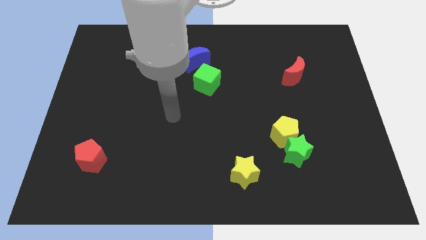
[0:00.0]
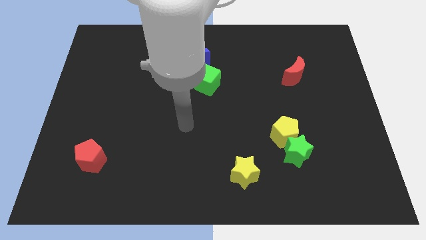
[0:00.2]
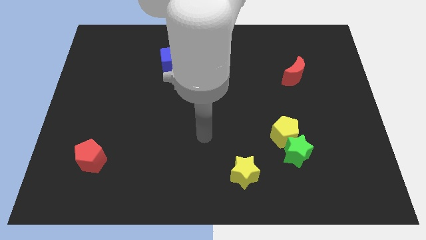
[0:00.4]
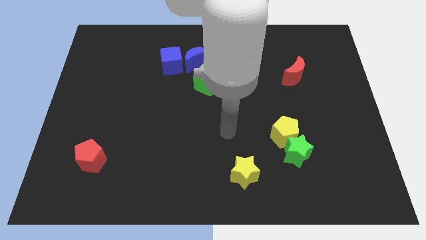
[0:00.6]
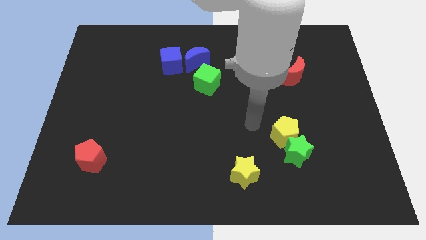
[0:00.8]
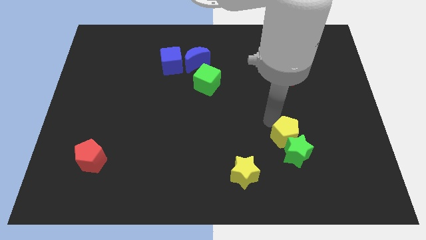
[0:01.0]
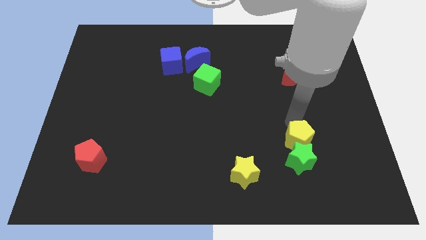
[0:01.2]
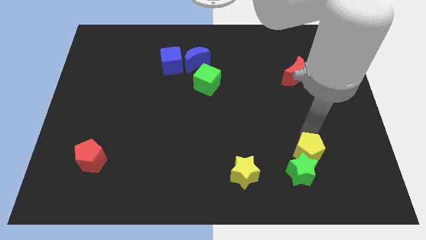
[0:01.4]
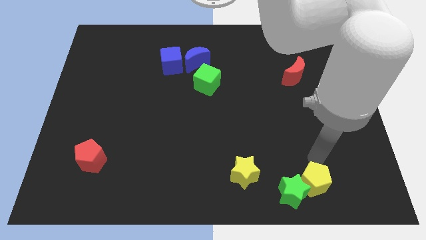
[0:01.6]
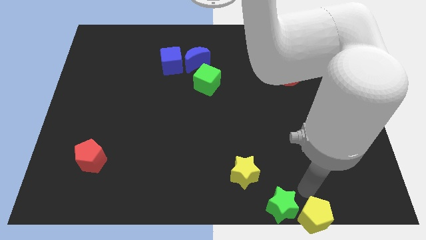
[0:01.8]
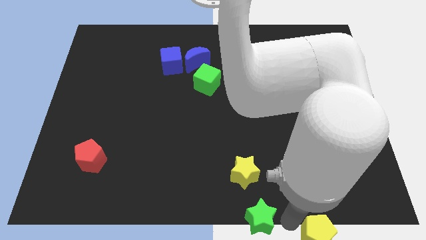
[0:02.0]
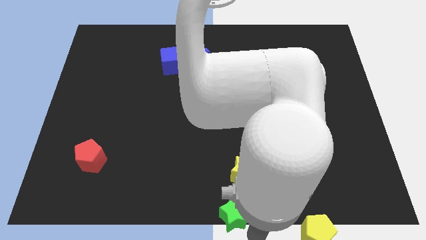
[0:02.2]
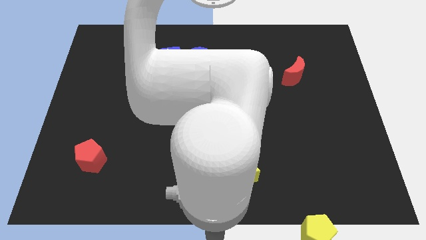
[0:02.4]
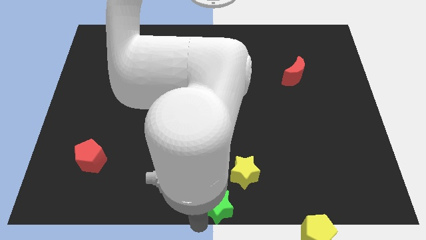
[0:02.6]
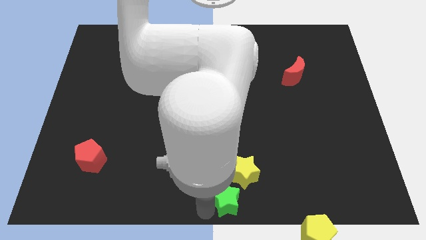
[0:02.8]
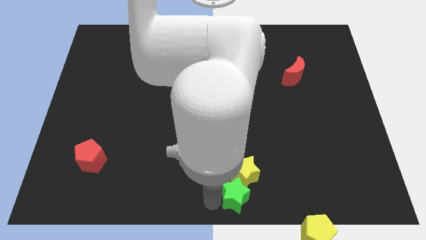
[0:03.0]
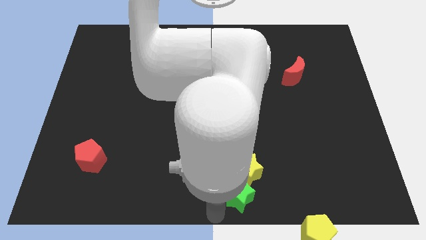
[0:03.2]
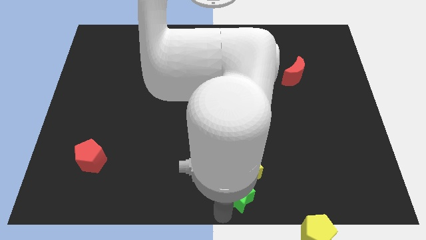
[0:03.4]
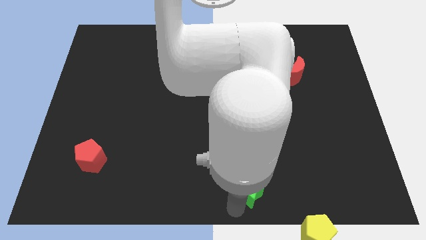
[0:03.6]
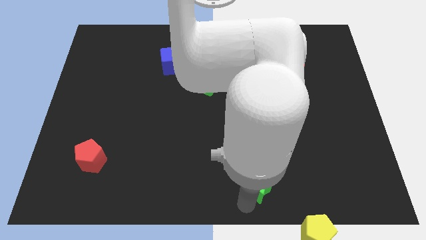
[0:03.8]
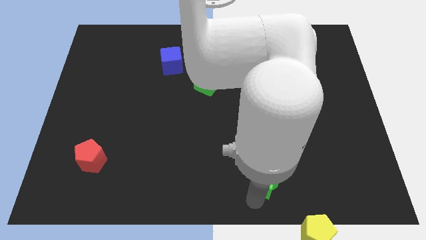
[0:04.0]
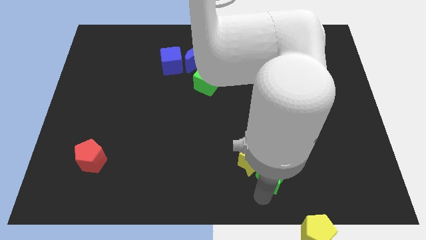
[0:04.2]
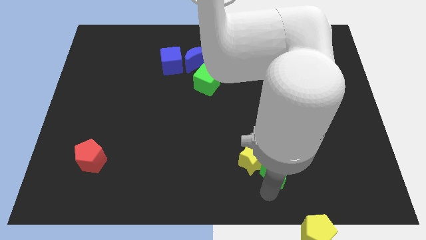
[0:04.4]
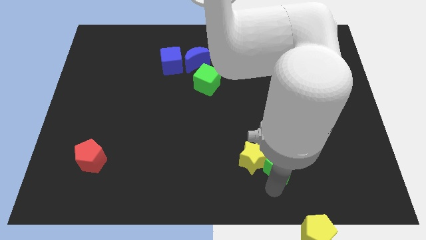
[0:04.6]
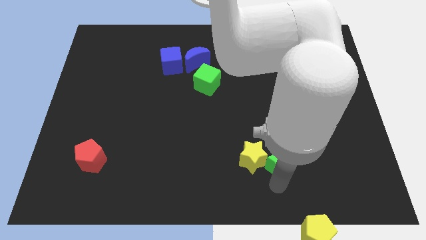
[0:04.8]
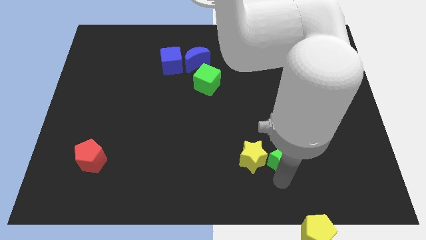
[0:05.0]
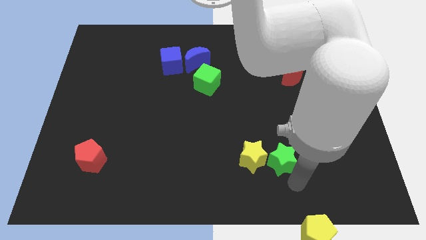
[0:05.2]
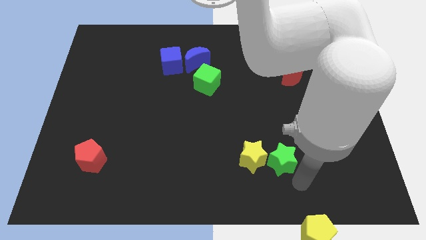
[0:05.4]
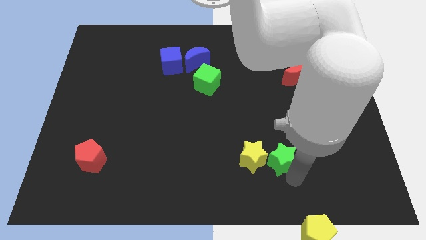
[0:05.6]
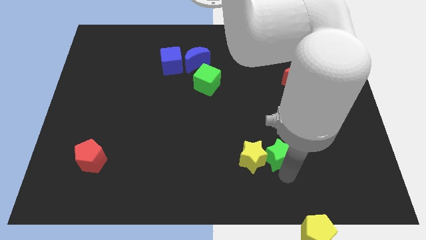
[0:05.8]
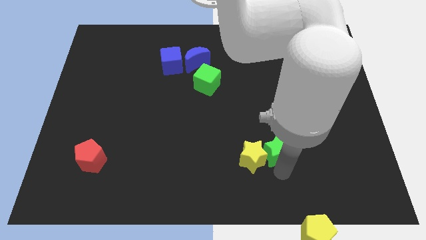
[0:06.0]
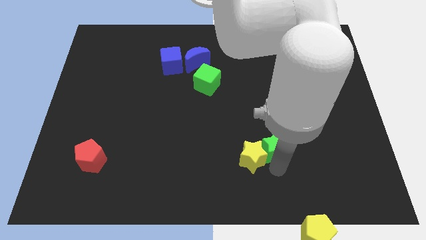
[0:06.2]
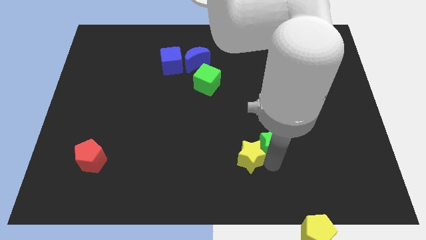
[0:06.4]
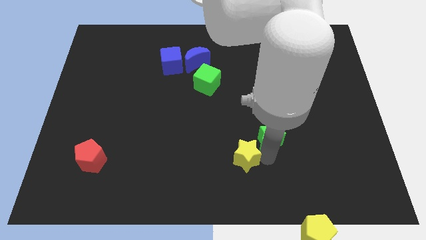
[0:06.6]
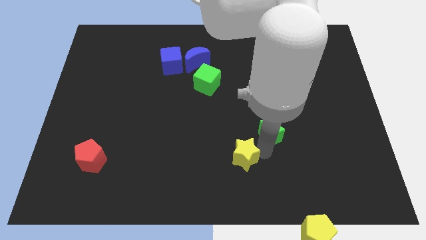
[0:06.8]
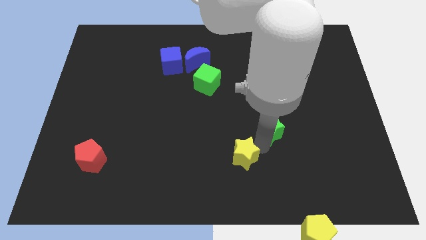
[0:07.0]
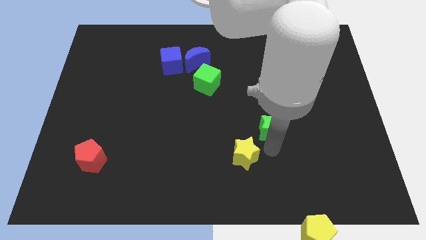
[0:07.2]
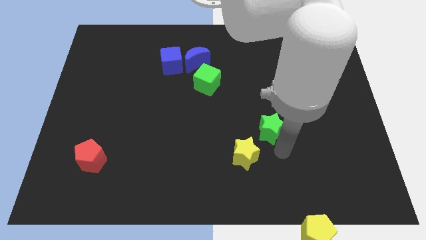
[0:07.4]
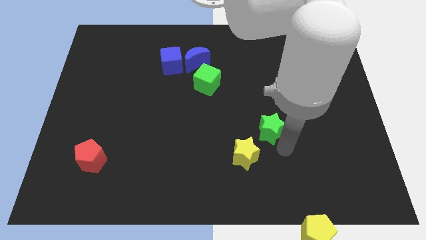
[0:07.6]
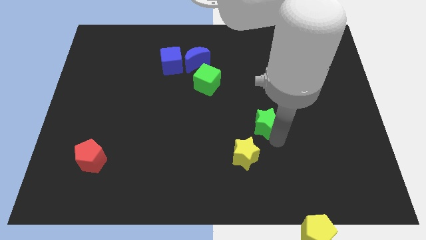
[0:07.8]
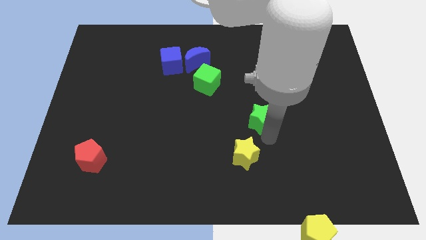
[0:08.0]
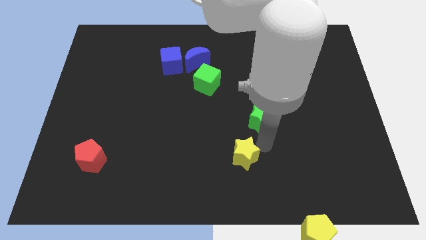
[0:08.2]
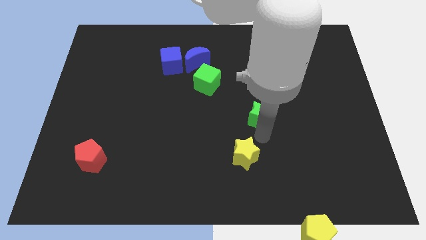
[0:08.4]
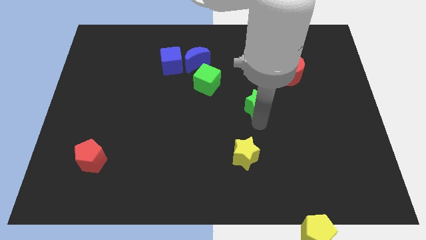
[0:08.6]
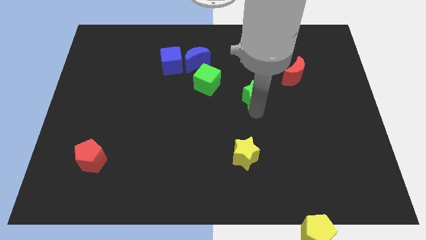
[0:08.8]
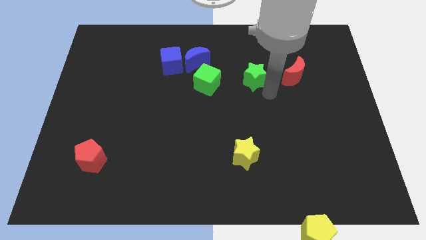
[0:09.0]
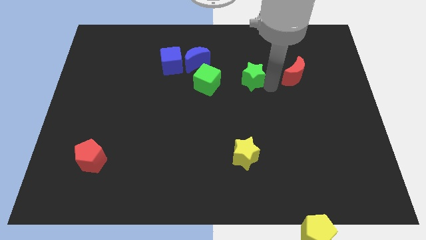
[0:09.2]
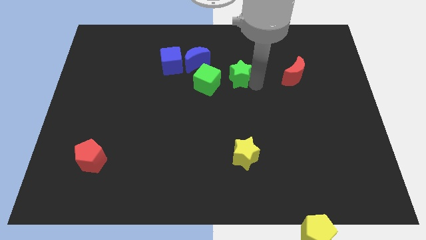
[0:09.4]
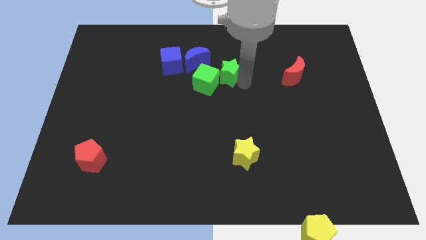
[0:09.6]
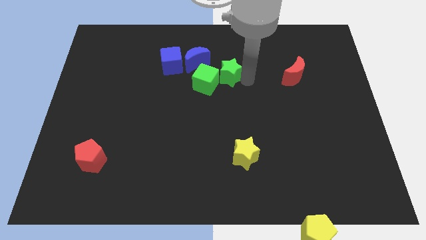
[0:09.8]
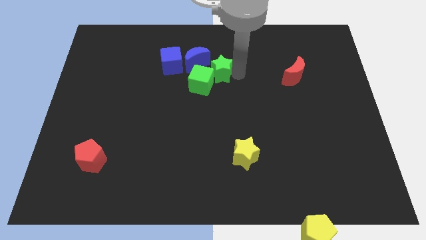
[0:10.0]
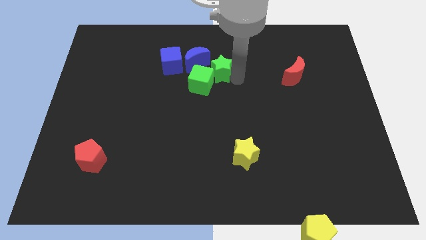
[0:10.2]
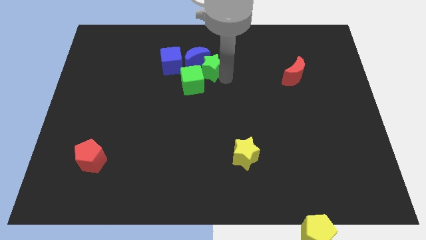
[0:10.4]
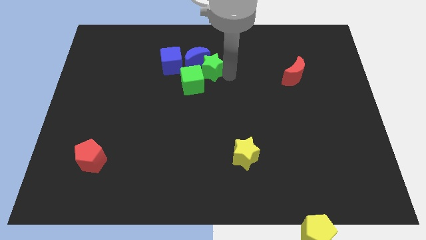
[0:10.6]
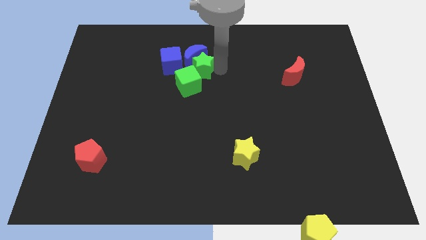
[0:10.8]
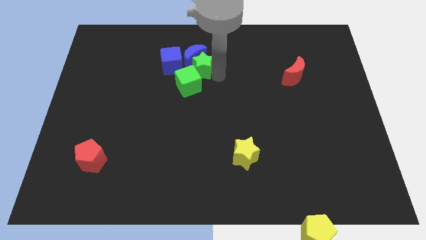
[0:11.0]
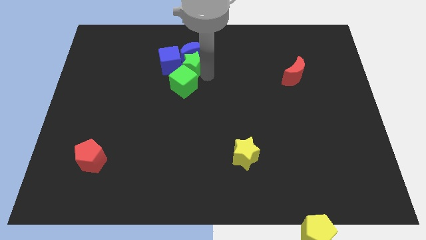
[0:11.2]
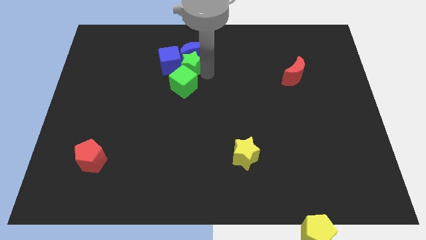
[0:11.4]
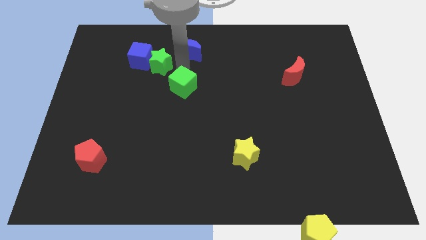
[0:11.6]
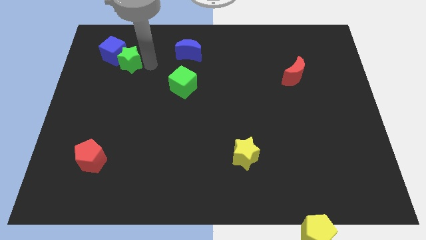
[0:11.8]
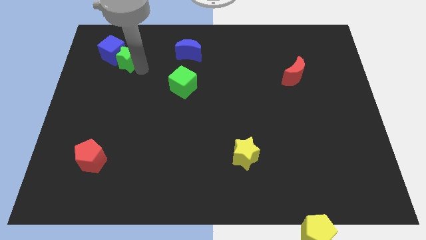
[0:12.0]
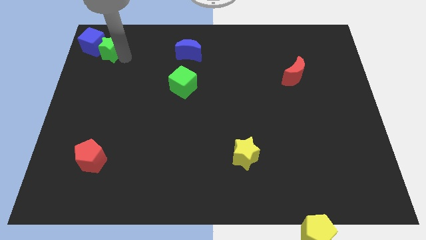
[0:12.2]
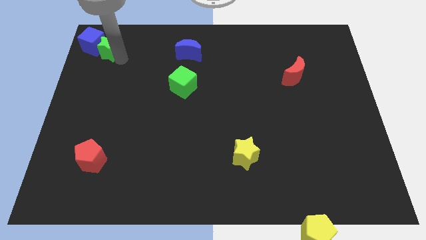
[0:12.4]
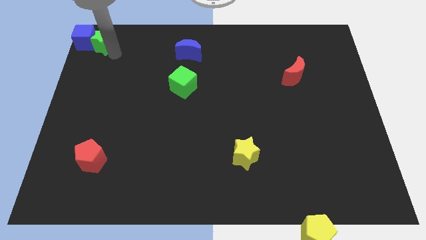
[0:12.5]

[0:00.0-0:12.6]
push the green star to the upper left corner

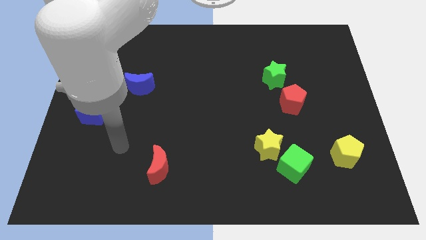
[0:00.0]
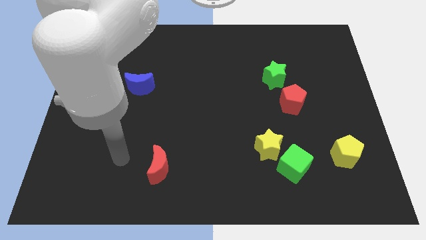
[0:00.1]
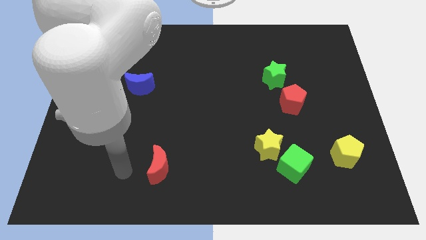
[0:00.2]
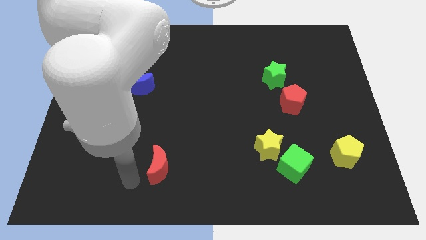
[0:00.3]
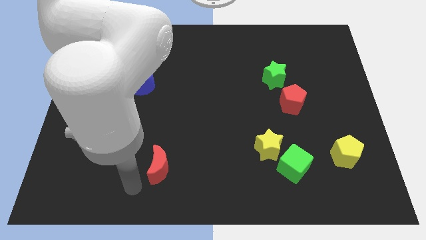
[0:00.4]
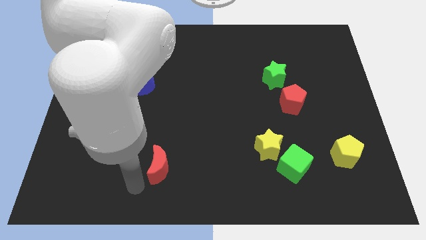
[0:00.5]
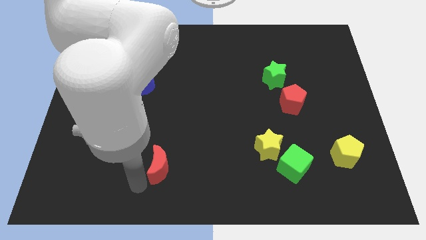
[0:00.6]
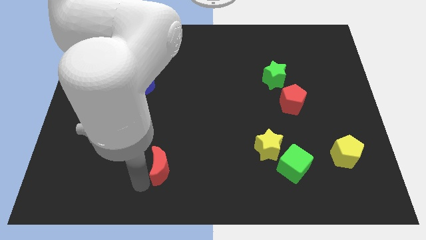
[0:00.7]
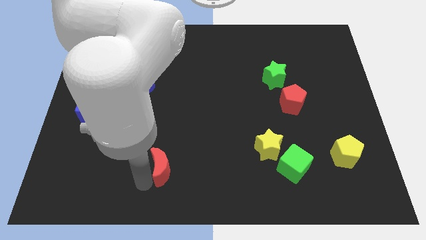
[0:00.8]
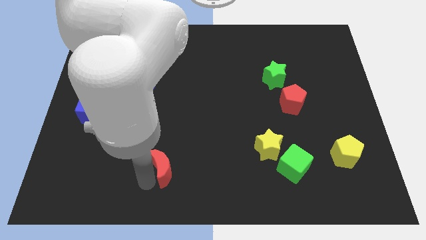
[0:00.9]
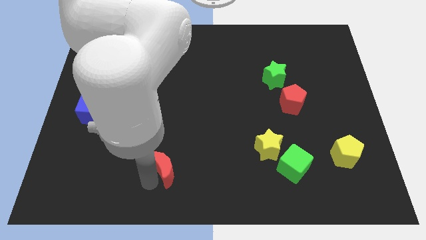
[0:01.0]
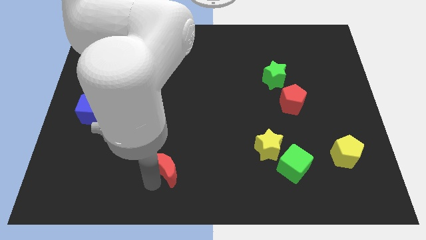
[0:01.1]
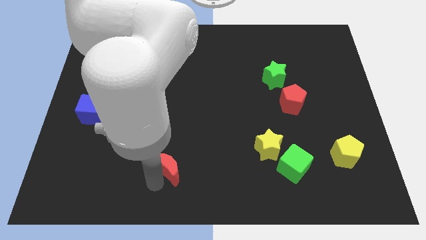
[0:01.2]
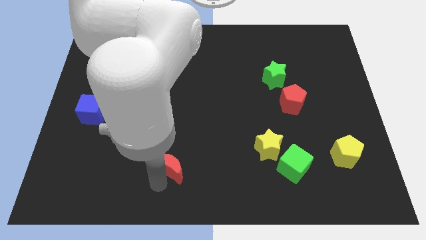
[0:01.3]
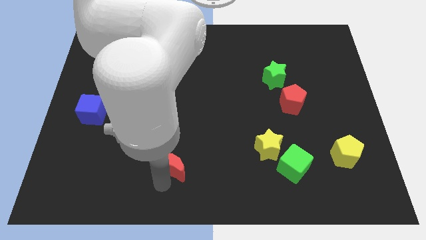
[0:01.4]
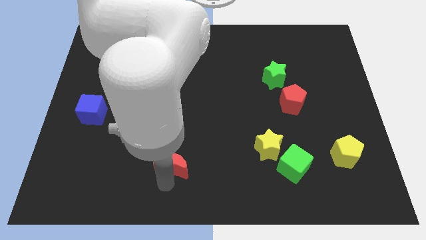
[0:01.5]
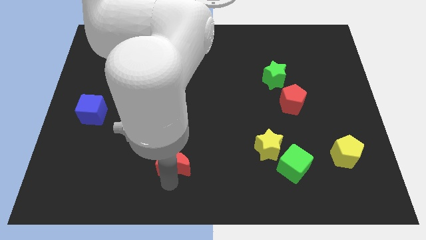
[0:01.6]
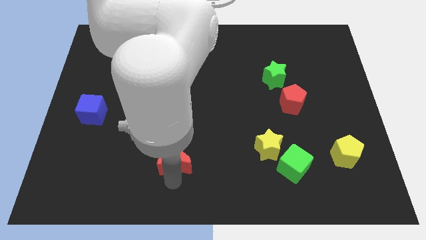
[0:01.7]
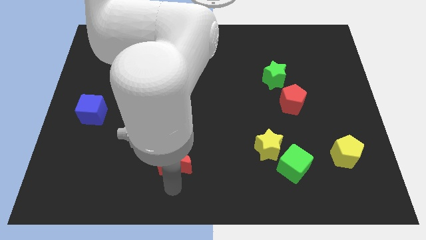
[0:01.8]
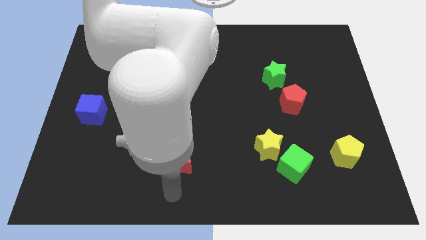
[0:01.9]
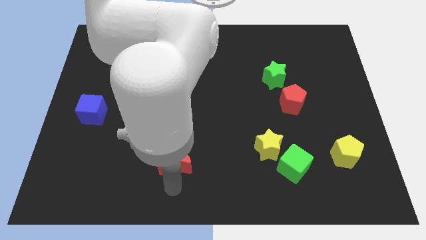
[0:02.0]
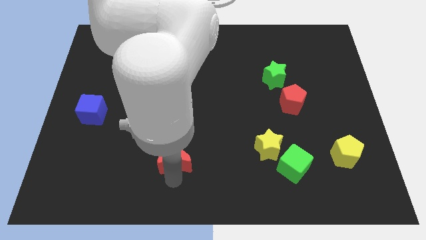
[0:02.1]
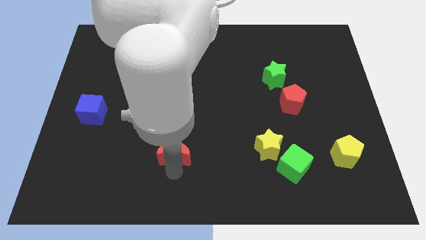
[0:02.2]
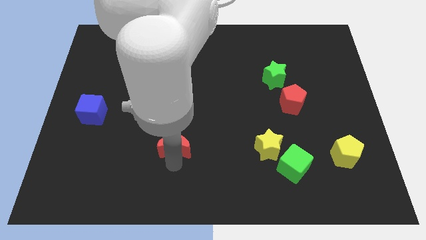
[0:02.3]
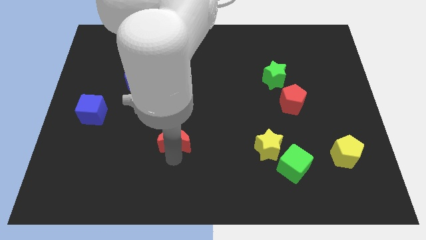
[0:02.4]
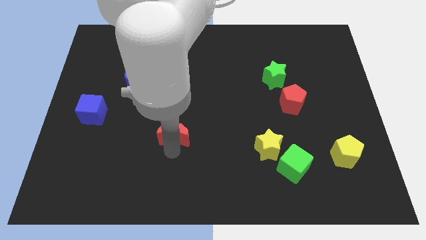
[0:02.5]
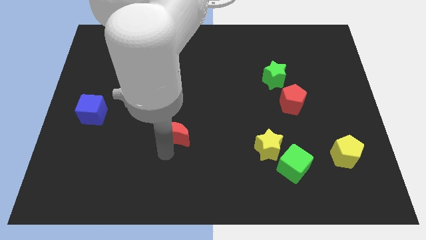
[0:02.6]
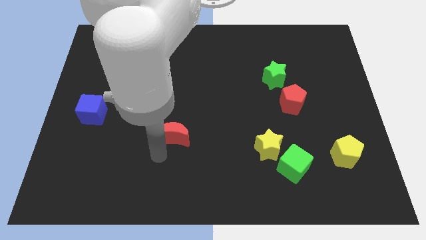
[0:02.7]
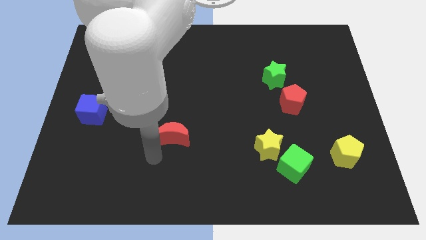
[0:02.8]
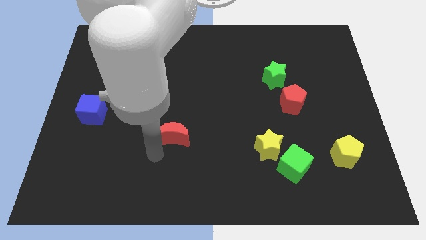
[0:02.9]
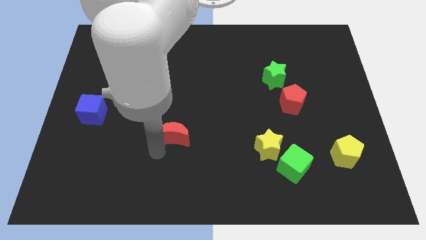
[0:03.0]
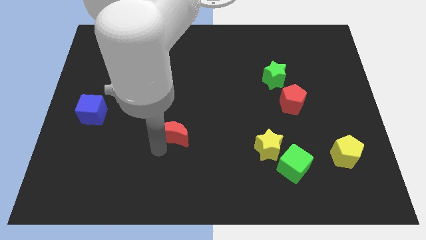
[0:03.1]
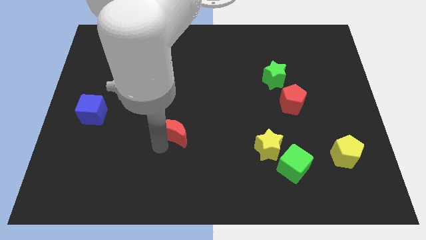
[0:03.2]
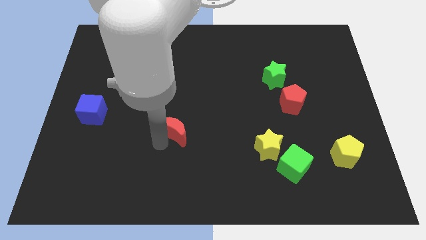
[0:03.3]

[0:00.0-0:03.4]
move the red moon to the center
